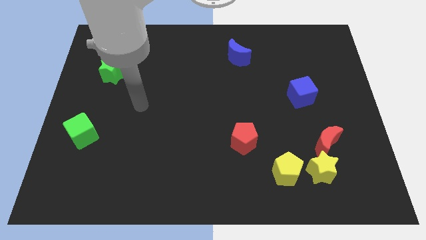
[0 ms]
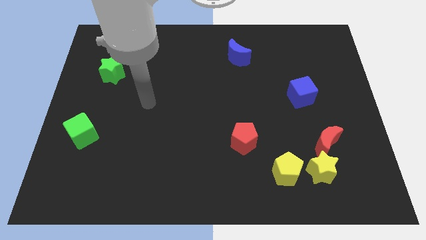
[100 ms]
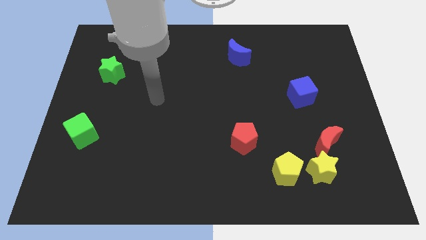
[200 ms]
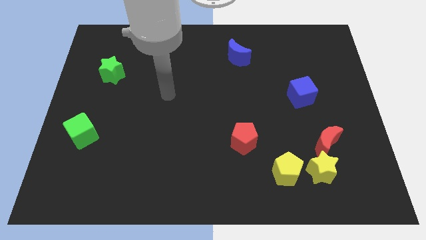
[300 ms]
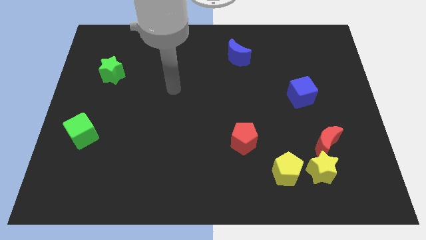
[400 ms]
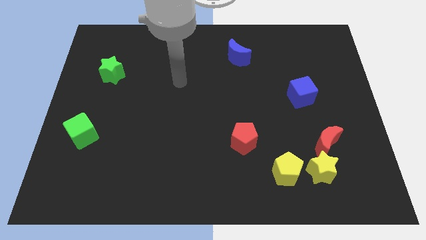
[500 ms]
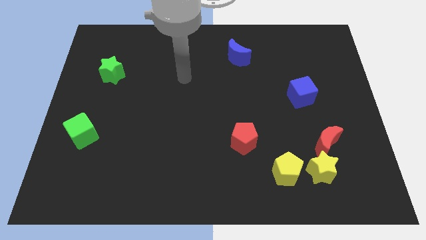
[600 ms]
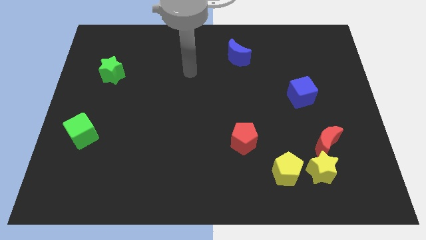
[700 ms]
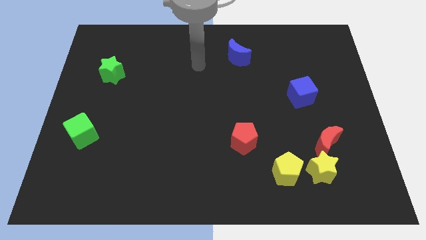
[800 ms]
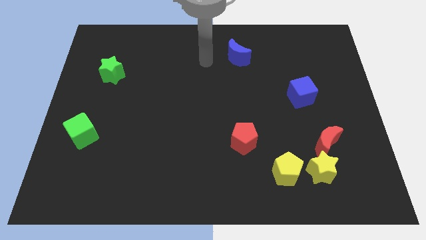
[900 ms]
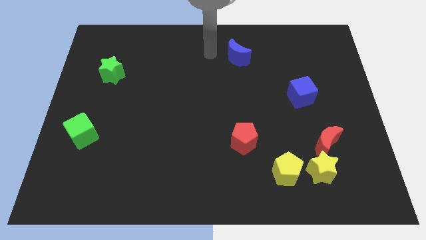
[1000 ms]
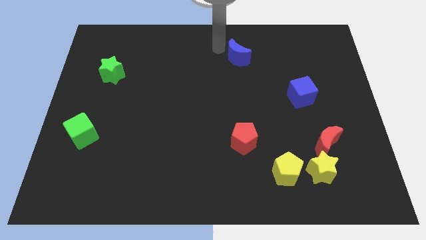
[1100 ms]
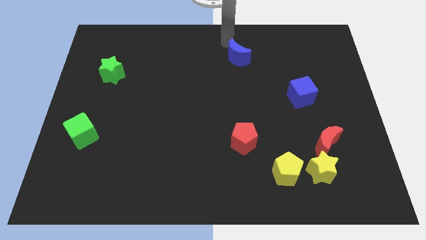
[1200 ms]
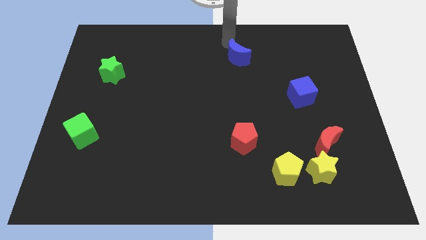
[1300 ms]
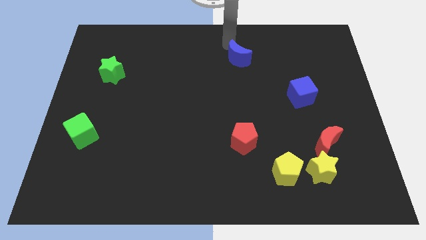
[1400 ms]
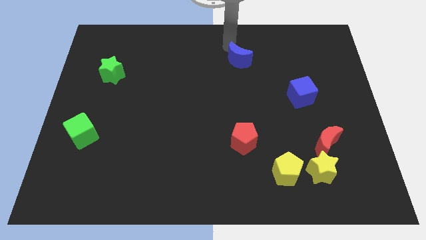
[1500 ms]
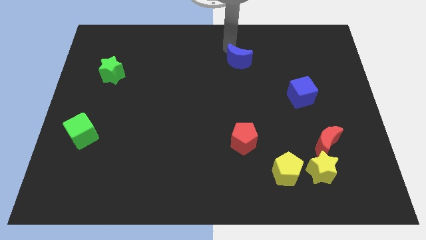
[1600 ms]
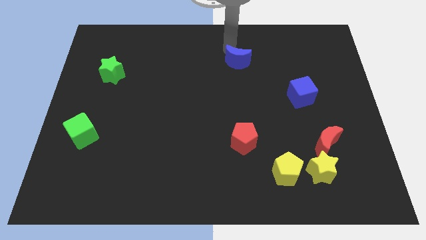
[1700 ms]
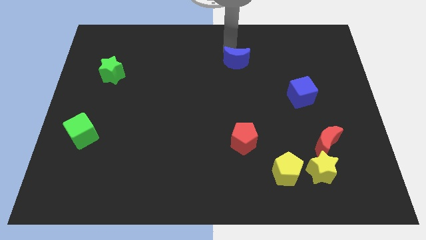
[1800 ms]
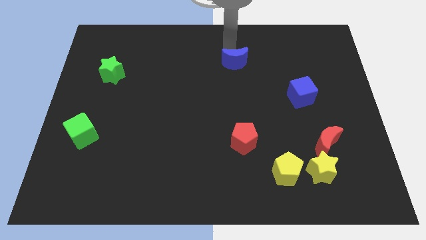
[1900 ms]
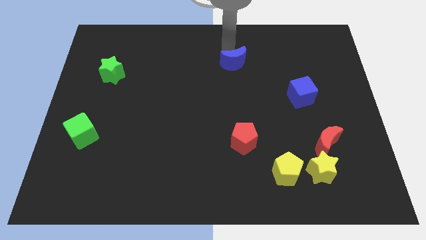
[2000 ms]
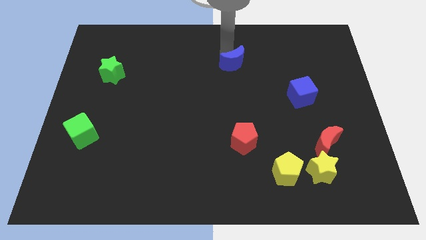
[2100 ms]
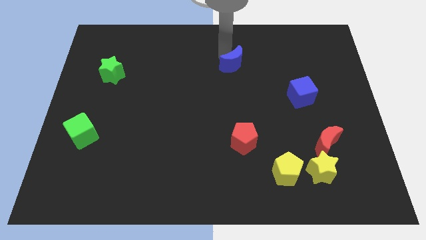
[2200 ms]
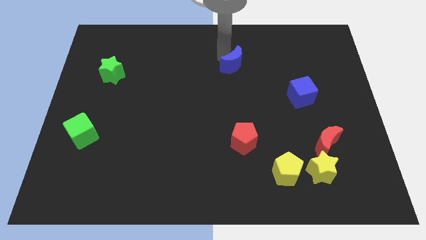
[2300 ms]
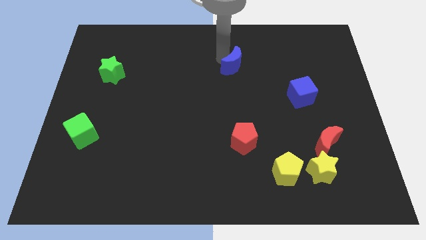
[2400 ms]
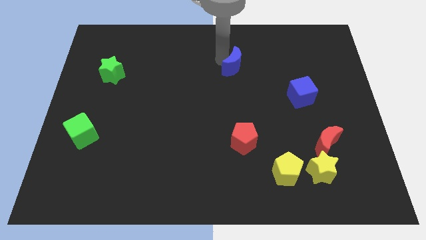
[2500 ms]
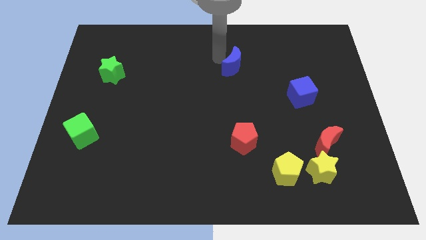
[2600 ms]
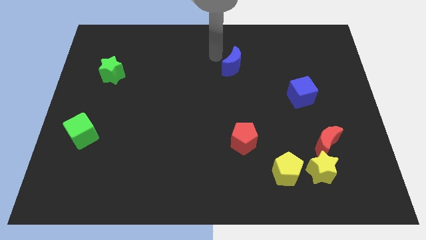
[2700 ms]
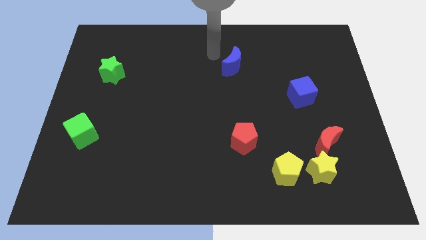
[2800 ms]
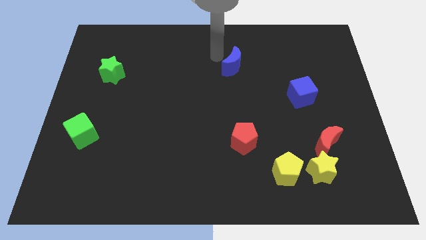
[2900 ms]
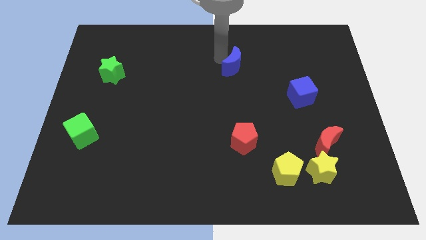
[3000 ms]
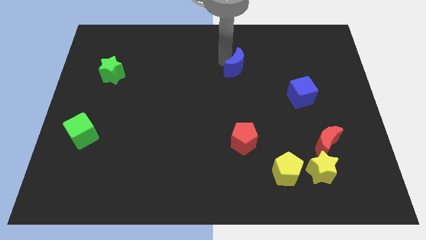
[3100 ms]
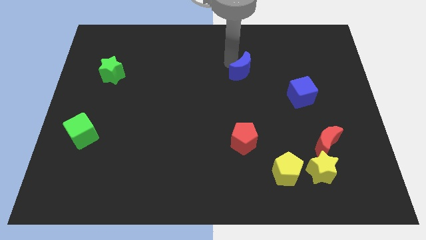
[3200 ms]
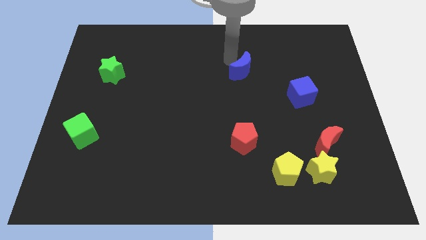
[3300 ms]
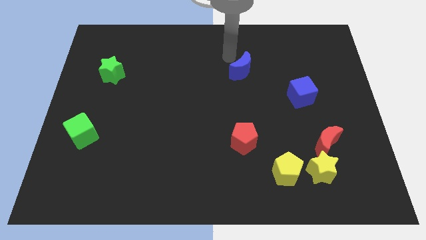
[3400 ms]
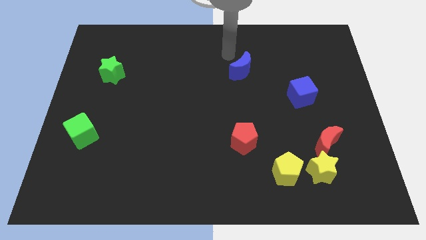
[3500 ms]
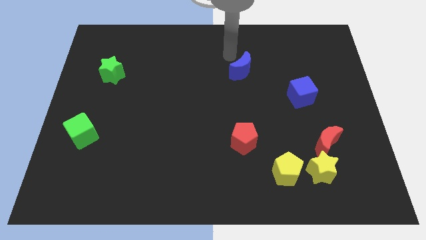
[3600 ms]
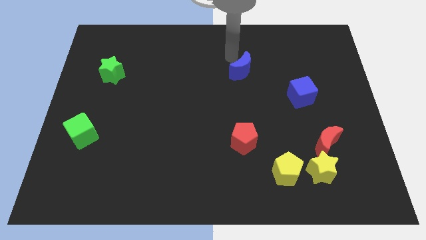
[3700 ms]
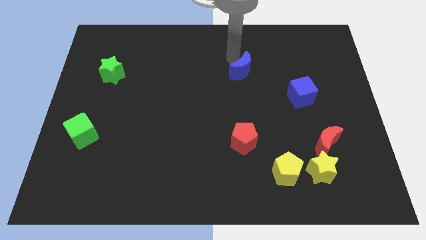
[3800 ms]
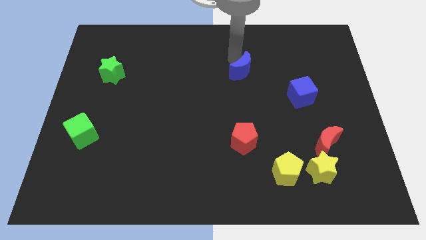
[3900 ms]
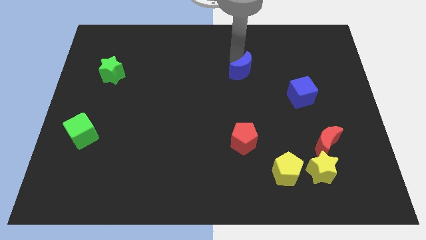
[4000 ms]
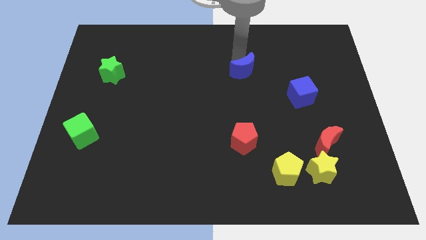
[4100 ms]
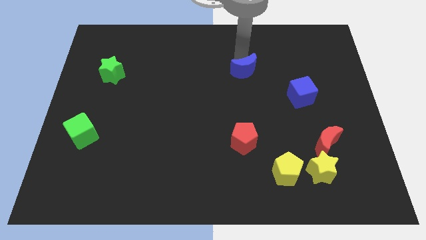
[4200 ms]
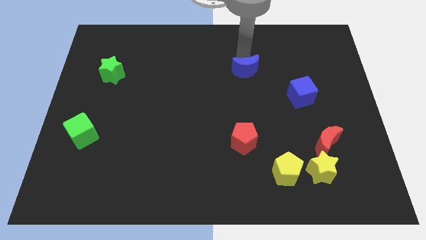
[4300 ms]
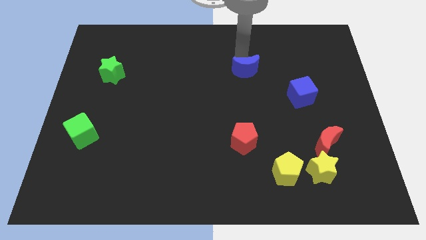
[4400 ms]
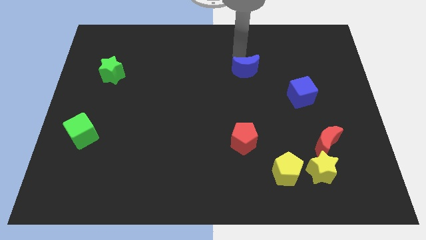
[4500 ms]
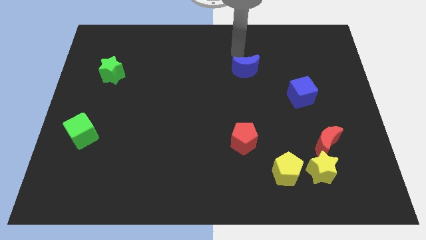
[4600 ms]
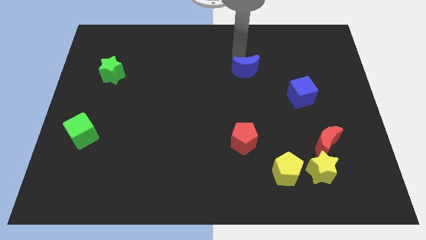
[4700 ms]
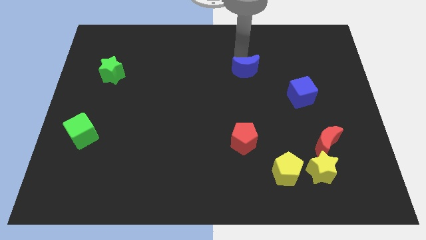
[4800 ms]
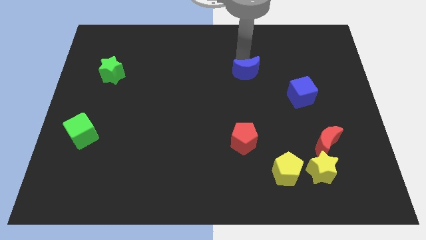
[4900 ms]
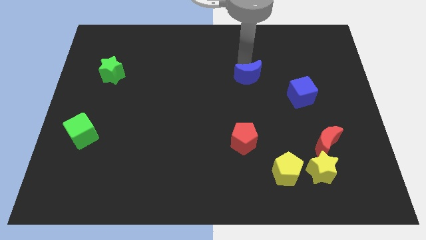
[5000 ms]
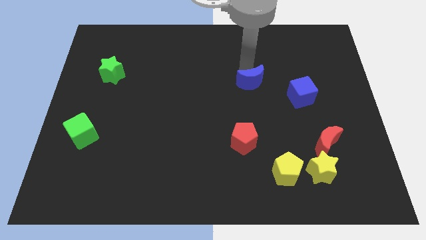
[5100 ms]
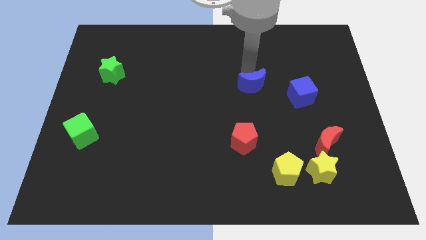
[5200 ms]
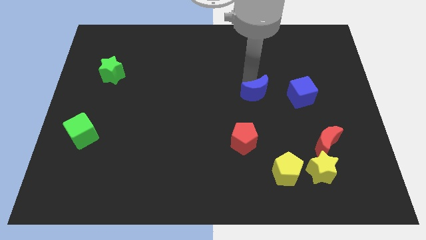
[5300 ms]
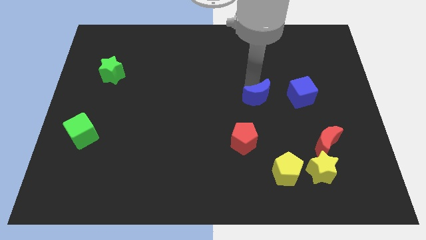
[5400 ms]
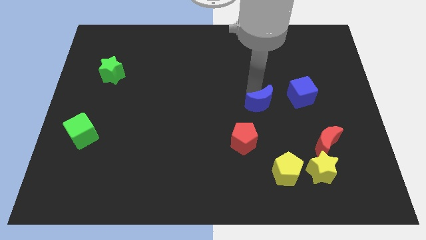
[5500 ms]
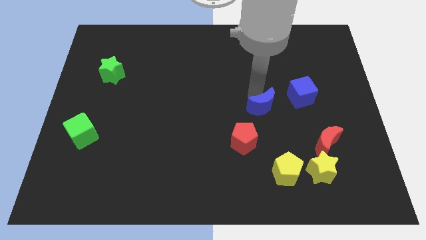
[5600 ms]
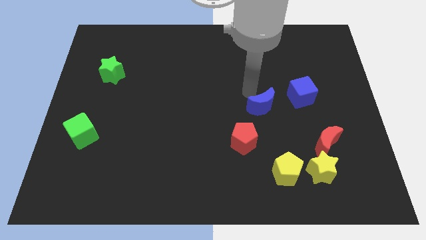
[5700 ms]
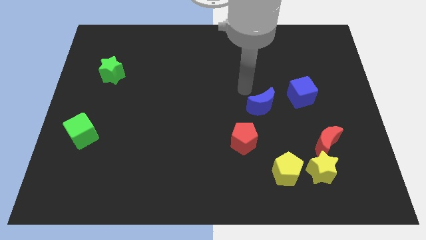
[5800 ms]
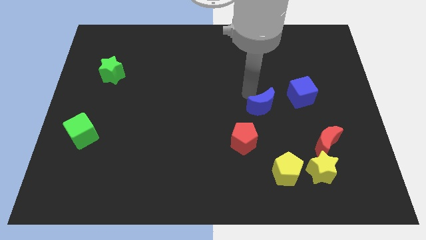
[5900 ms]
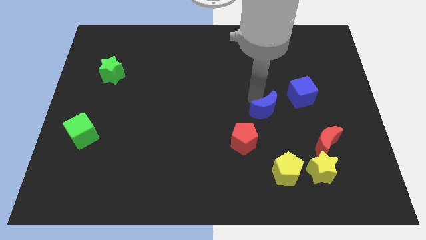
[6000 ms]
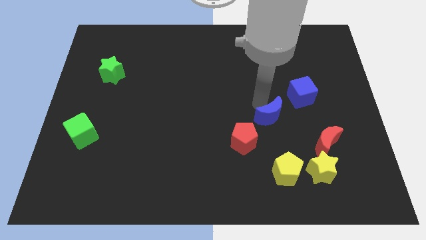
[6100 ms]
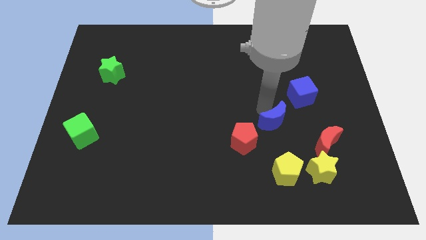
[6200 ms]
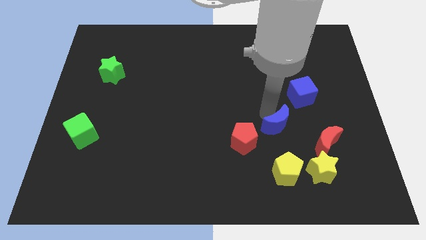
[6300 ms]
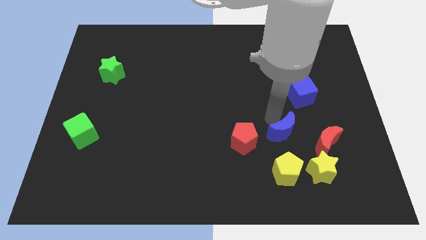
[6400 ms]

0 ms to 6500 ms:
push the blue moon diagonally up and to the left of the yellow star
